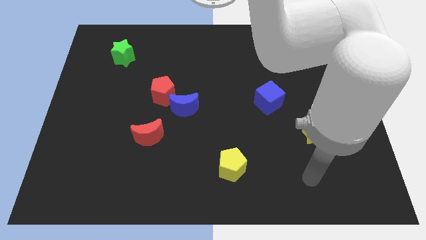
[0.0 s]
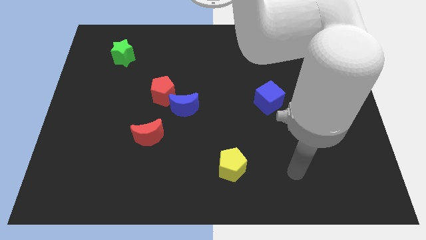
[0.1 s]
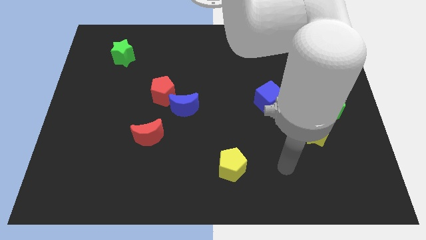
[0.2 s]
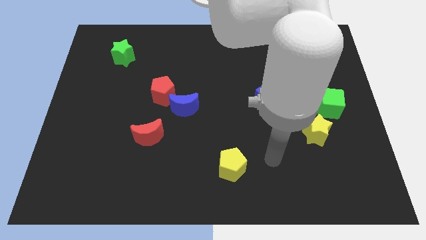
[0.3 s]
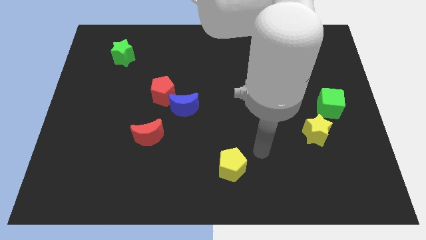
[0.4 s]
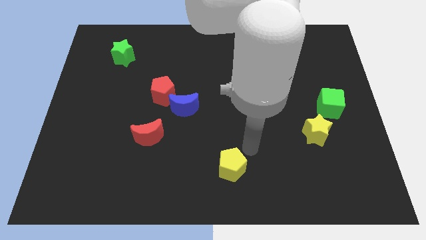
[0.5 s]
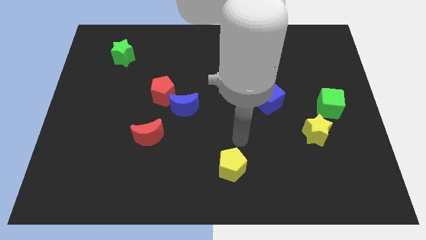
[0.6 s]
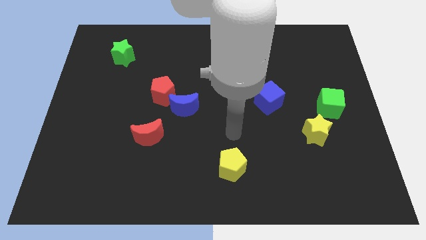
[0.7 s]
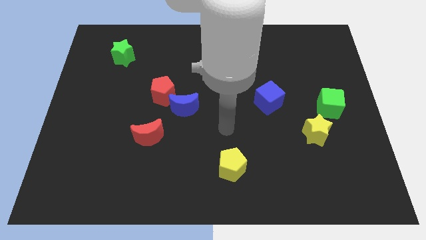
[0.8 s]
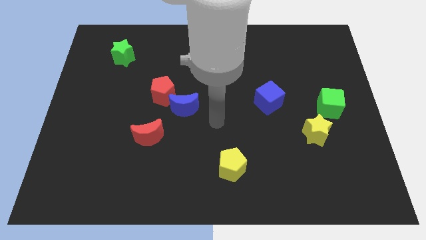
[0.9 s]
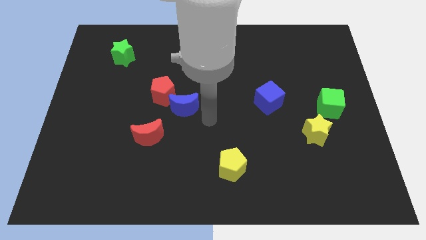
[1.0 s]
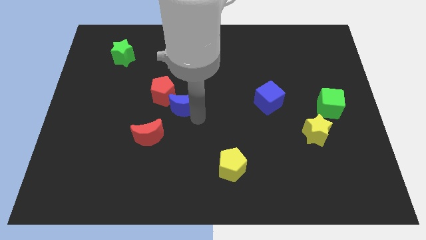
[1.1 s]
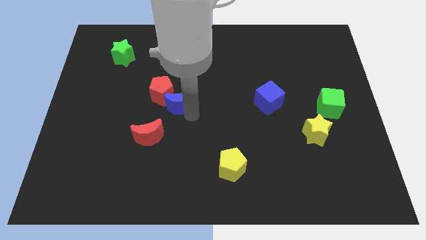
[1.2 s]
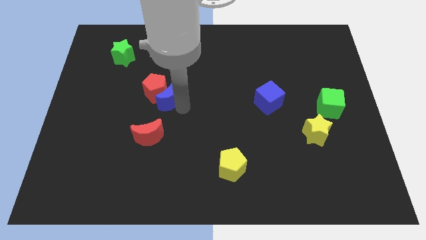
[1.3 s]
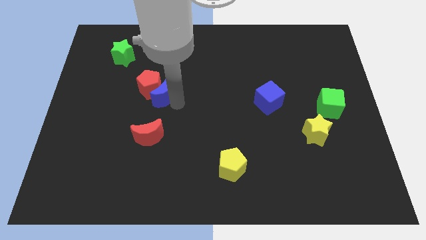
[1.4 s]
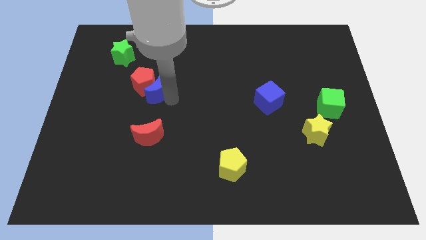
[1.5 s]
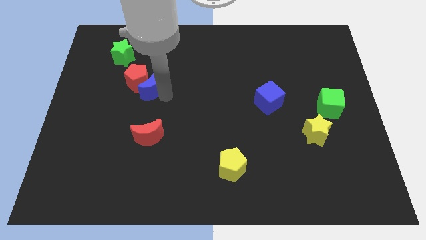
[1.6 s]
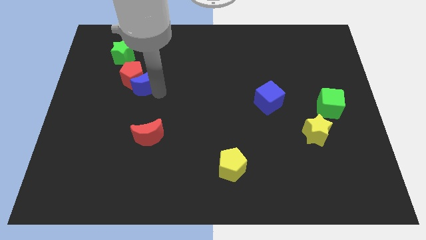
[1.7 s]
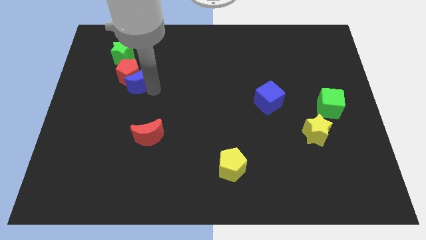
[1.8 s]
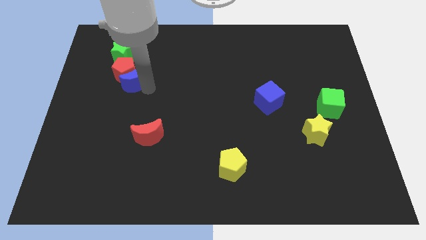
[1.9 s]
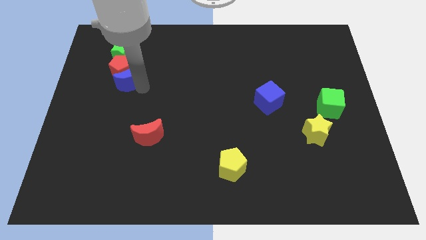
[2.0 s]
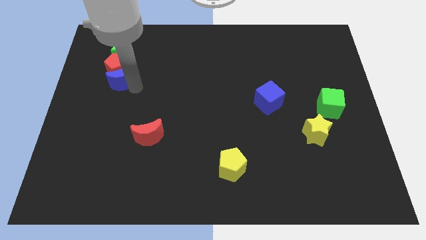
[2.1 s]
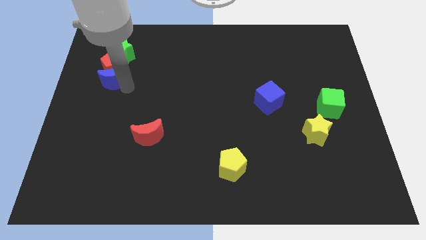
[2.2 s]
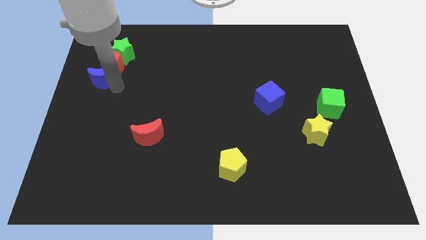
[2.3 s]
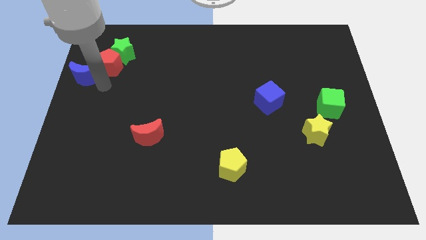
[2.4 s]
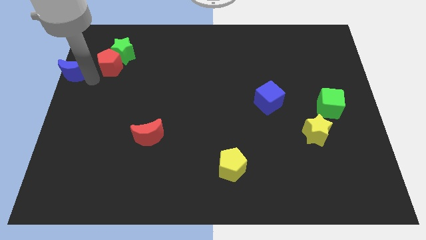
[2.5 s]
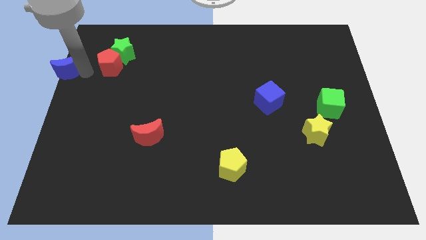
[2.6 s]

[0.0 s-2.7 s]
separate the red pentagon from the blue moon

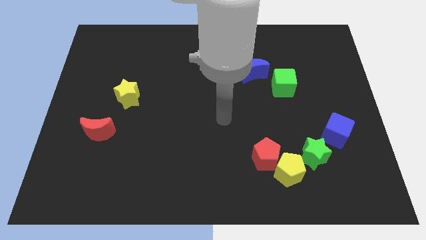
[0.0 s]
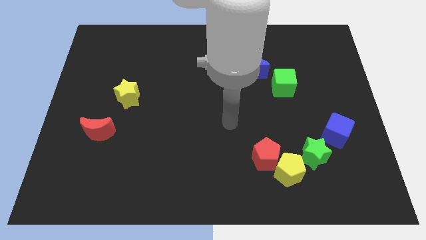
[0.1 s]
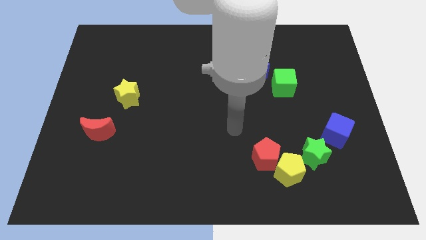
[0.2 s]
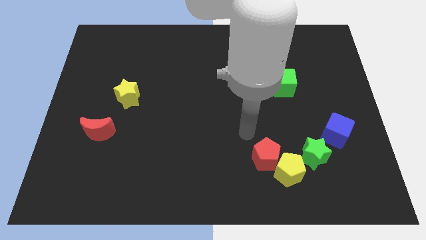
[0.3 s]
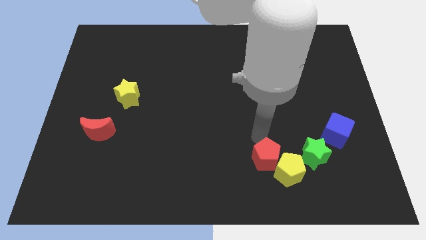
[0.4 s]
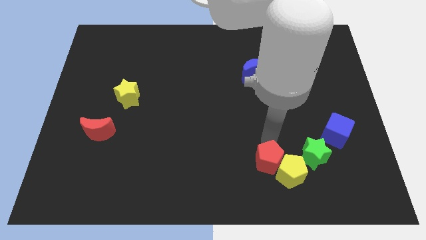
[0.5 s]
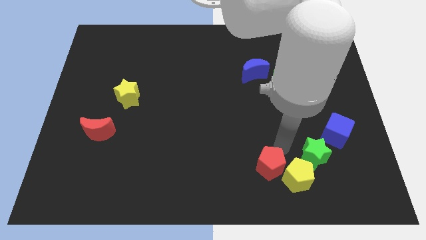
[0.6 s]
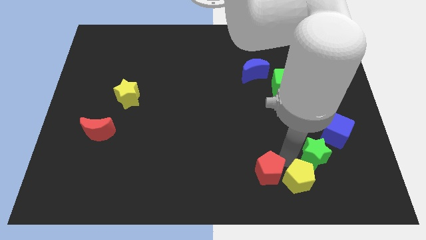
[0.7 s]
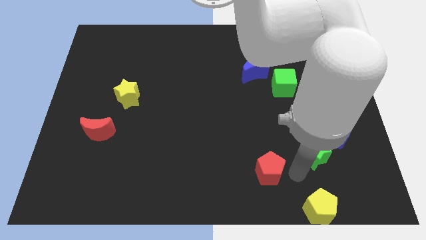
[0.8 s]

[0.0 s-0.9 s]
pull the red pentagon apart from the yellow pentagon

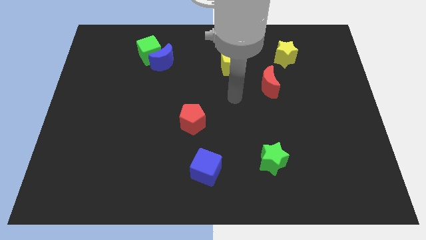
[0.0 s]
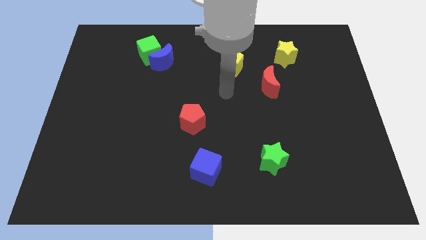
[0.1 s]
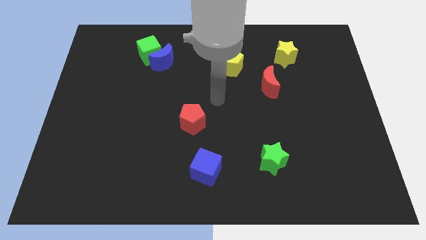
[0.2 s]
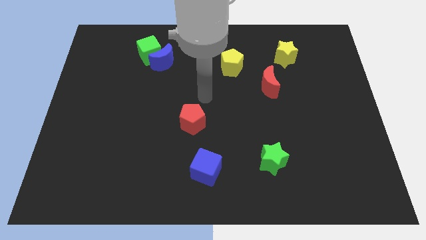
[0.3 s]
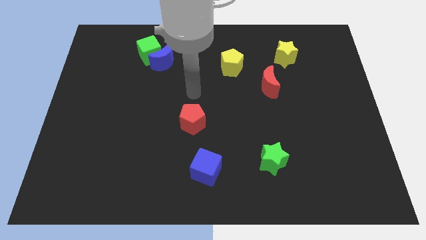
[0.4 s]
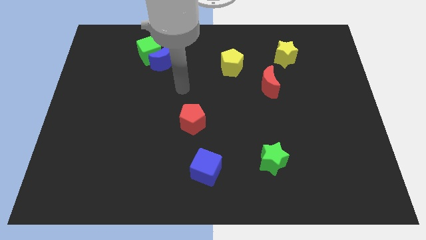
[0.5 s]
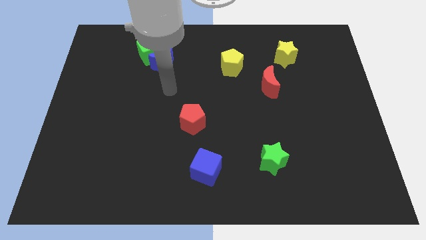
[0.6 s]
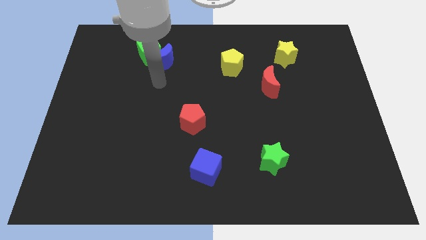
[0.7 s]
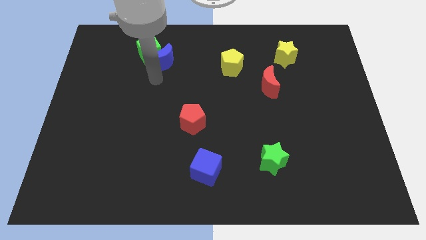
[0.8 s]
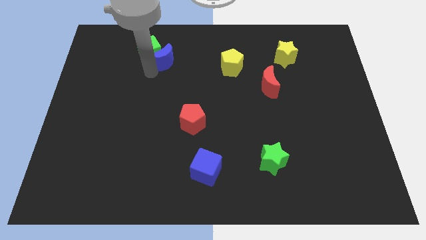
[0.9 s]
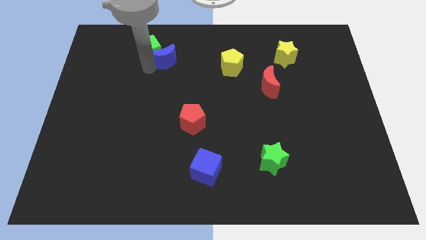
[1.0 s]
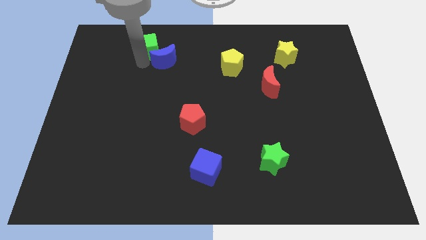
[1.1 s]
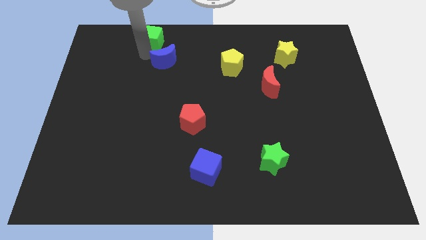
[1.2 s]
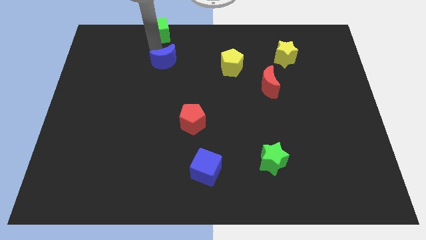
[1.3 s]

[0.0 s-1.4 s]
move the blue moon away from the green cube

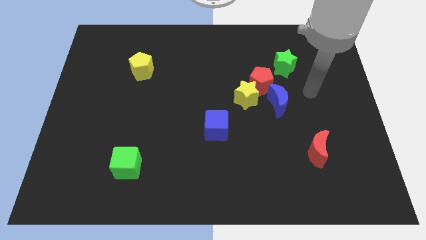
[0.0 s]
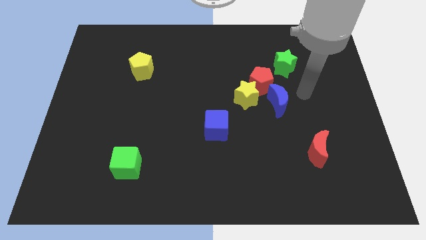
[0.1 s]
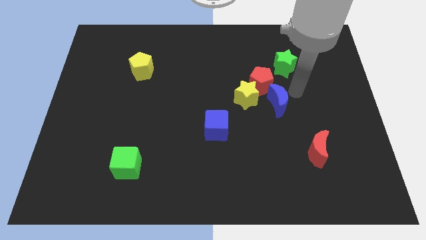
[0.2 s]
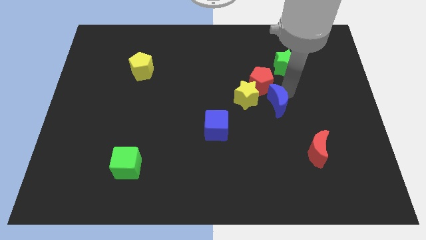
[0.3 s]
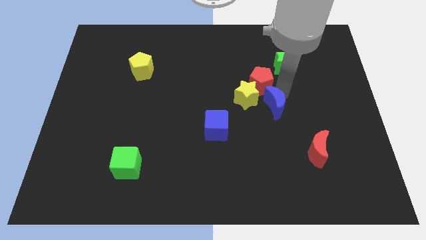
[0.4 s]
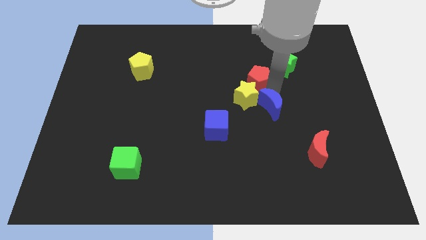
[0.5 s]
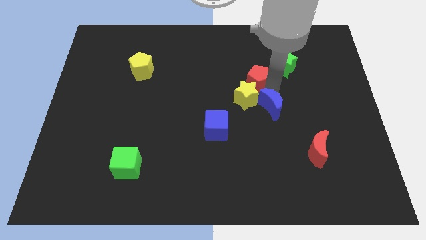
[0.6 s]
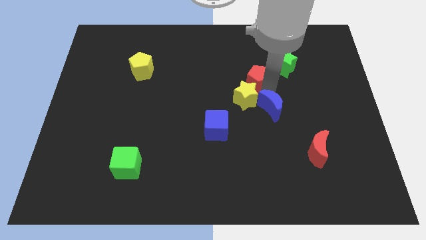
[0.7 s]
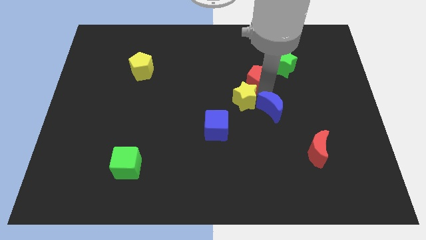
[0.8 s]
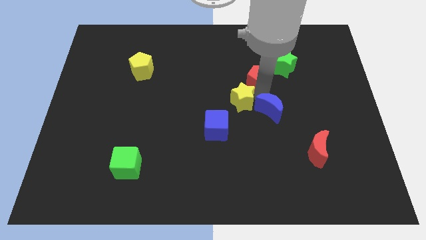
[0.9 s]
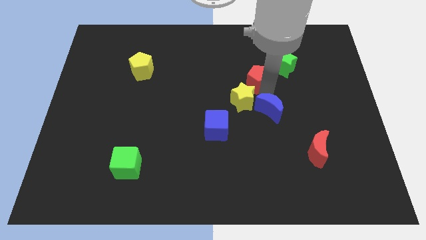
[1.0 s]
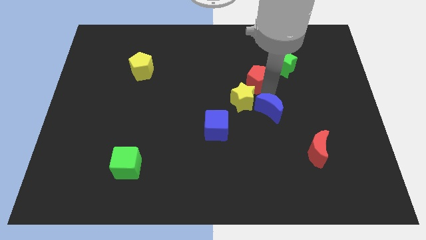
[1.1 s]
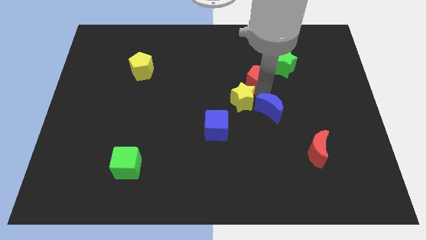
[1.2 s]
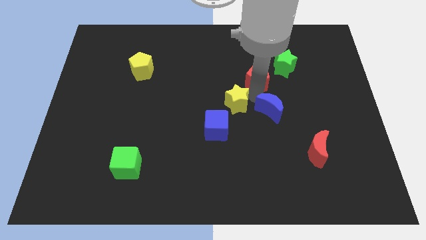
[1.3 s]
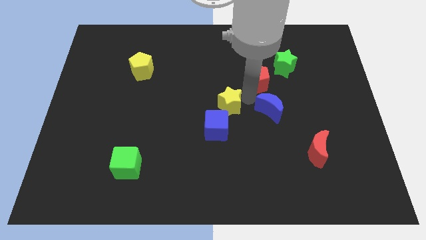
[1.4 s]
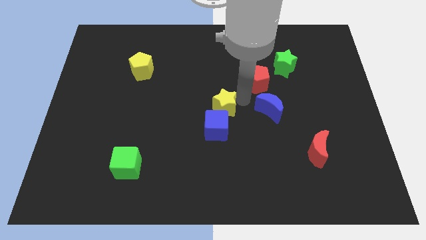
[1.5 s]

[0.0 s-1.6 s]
move the yellow star away from the red pentagon and blue moon

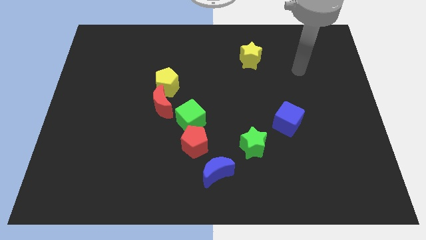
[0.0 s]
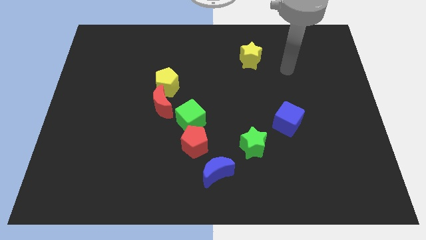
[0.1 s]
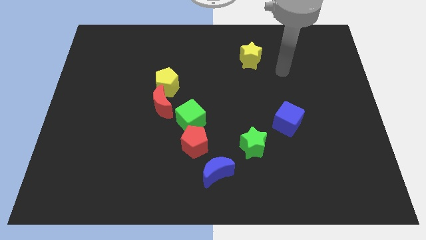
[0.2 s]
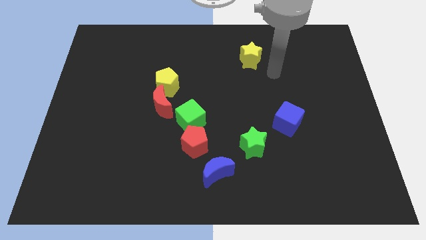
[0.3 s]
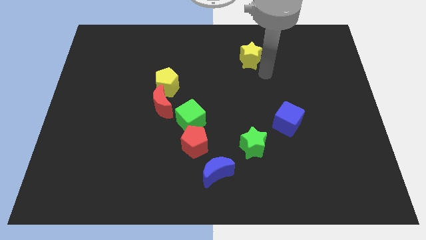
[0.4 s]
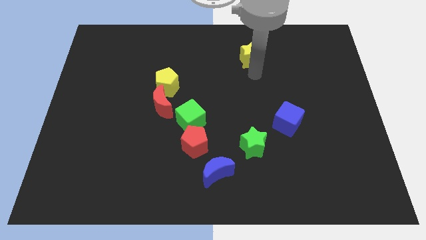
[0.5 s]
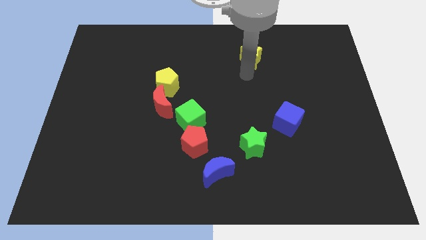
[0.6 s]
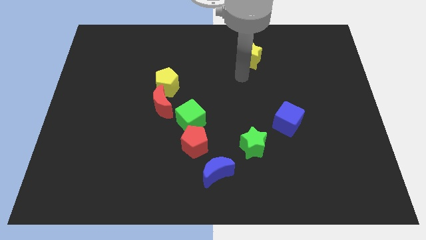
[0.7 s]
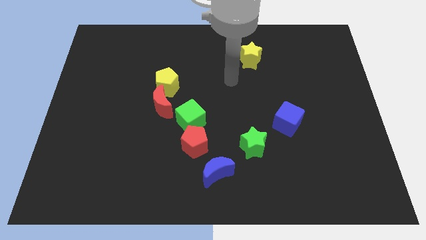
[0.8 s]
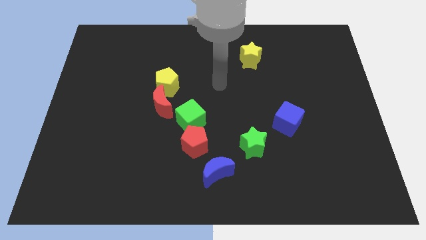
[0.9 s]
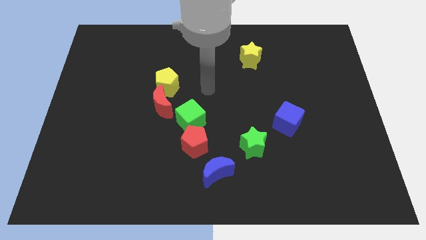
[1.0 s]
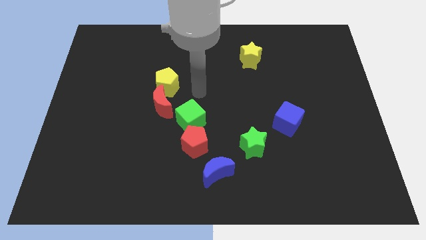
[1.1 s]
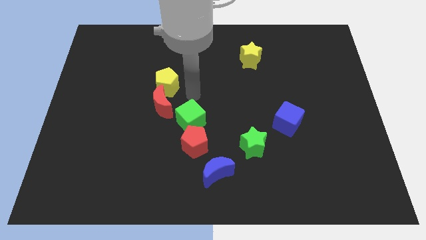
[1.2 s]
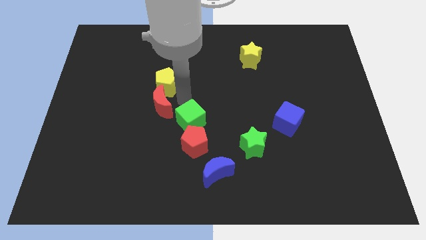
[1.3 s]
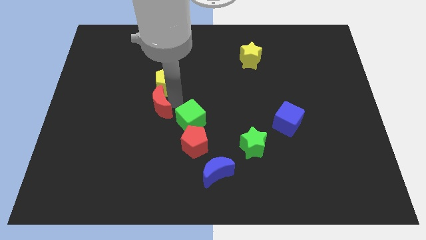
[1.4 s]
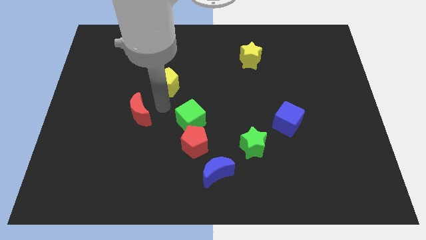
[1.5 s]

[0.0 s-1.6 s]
move the yellow pentagon away from the red moon

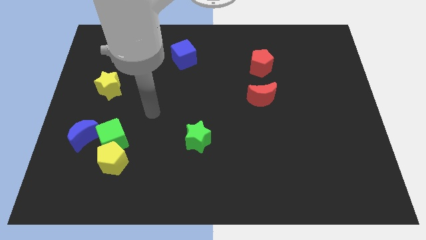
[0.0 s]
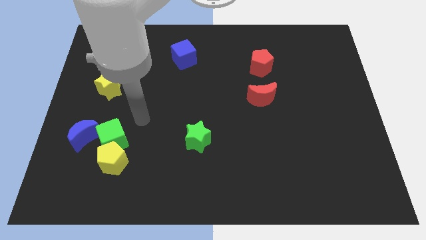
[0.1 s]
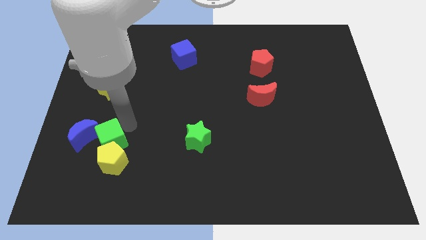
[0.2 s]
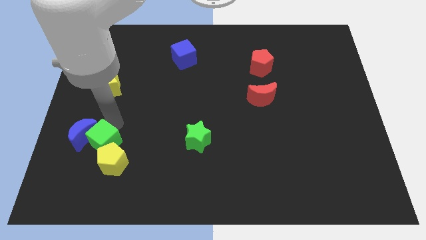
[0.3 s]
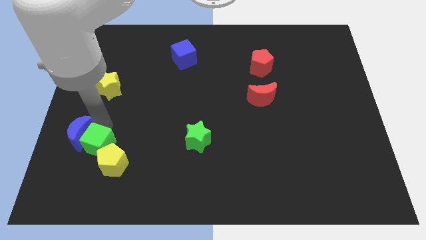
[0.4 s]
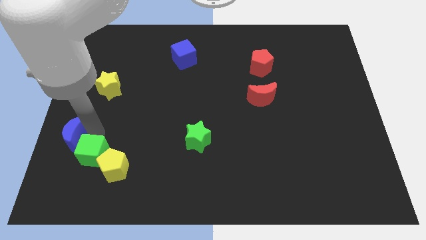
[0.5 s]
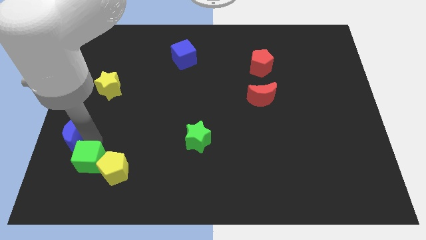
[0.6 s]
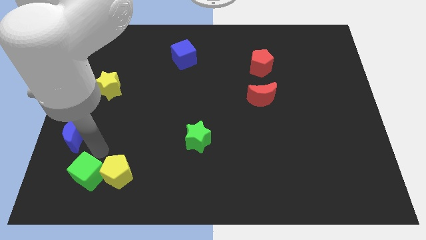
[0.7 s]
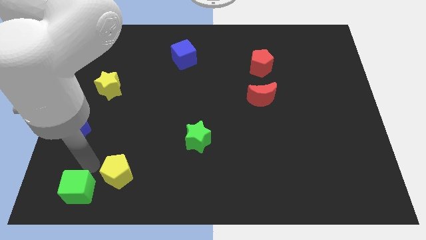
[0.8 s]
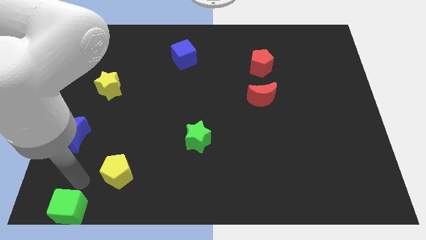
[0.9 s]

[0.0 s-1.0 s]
separate the green cube from the yellow pentagon and blue moon
